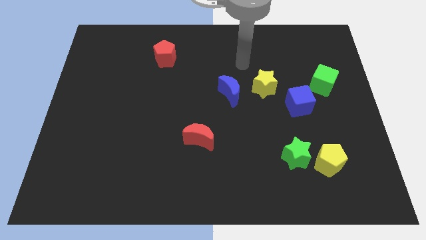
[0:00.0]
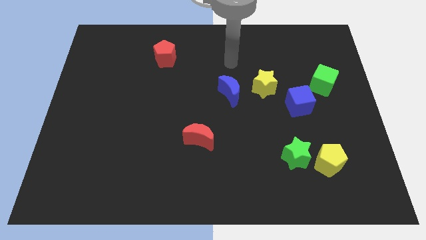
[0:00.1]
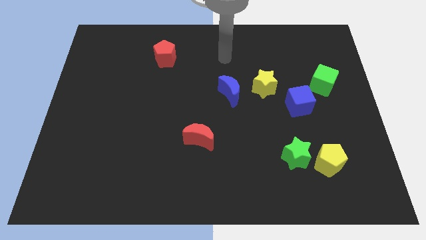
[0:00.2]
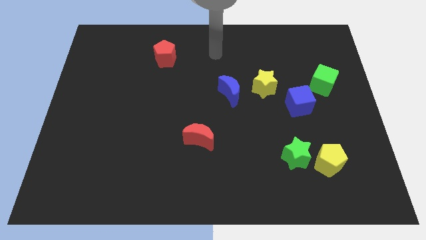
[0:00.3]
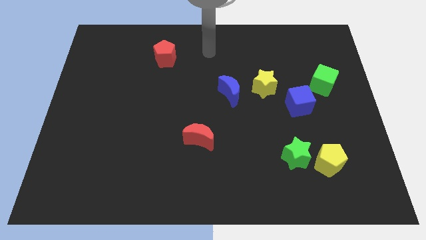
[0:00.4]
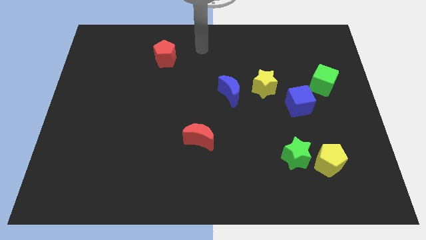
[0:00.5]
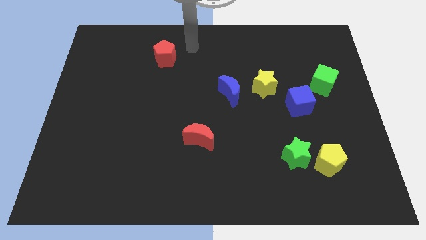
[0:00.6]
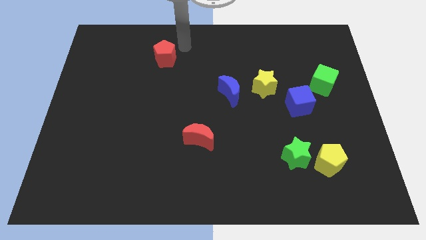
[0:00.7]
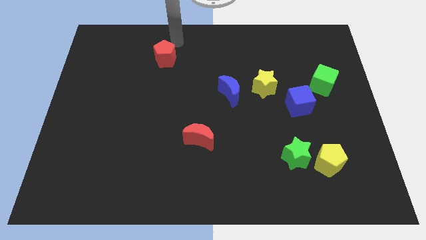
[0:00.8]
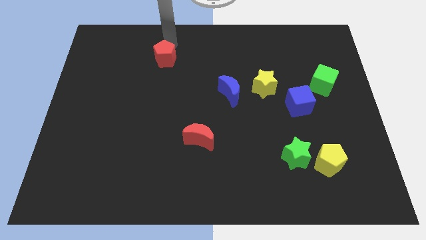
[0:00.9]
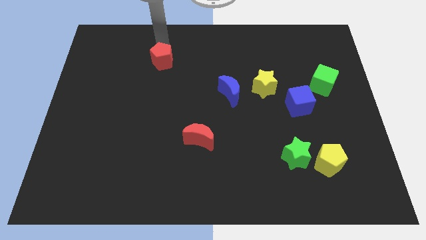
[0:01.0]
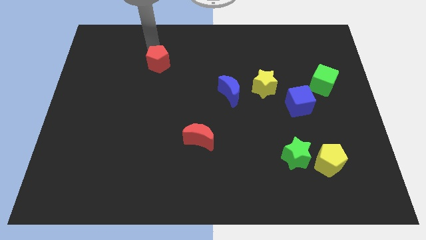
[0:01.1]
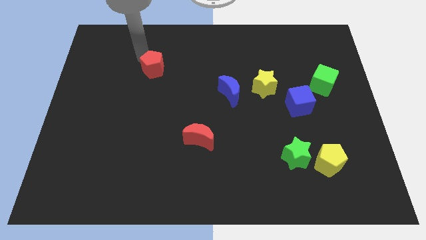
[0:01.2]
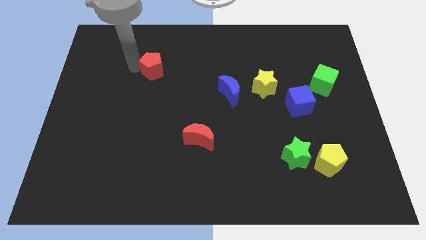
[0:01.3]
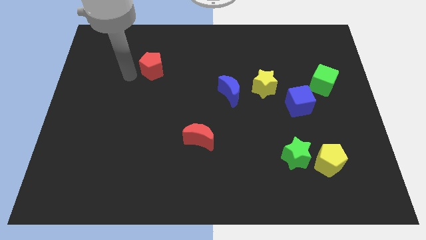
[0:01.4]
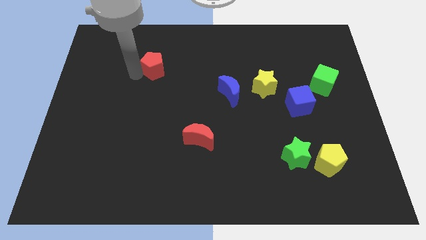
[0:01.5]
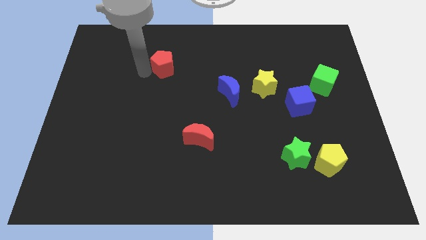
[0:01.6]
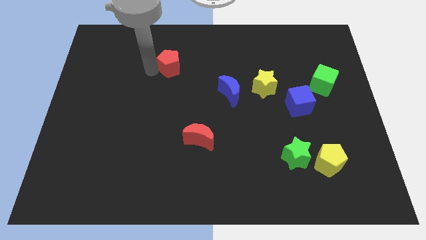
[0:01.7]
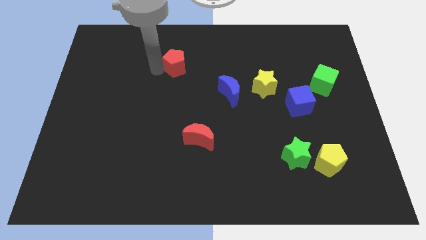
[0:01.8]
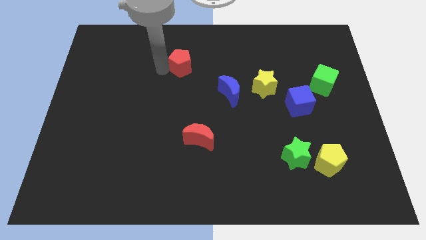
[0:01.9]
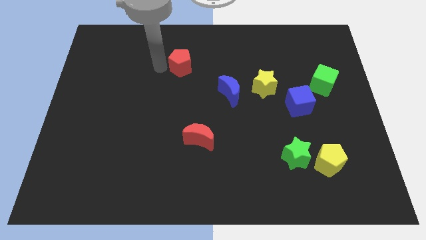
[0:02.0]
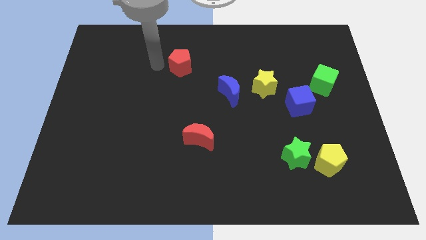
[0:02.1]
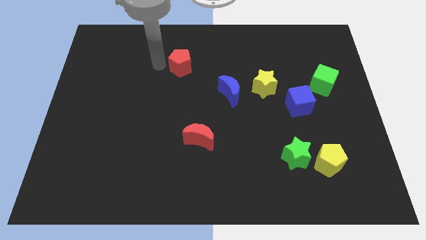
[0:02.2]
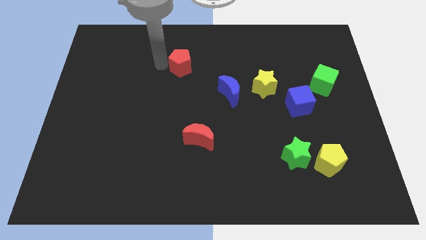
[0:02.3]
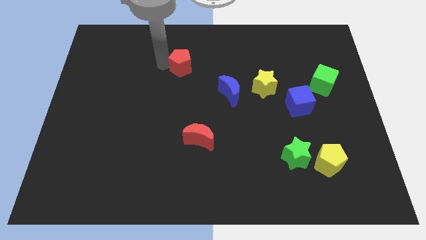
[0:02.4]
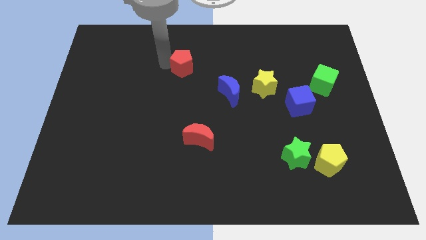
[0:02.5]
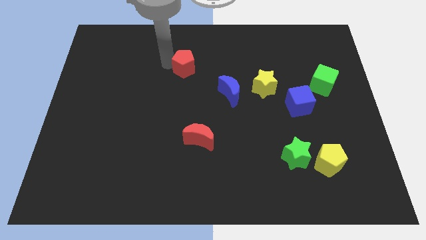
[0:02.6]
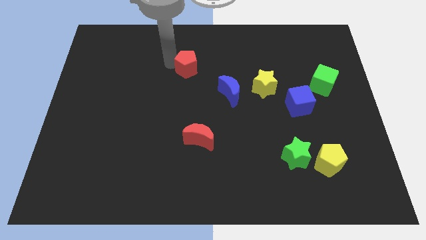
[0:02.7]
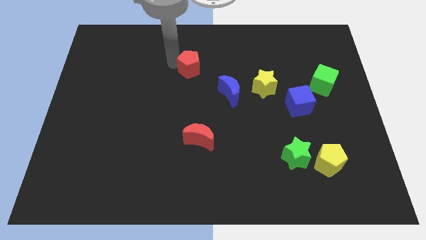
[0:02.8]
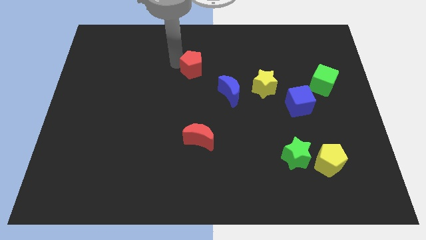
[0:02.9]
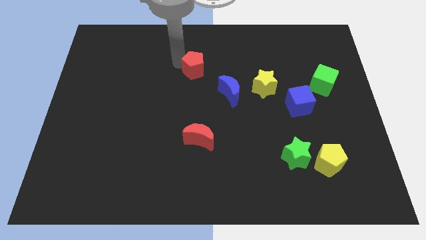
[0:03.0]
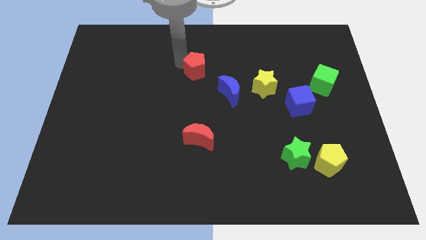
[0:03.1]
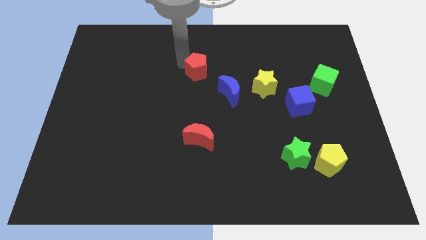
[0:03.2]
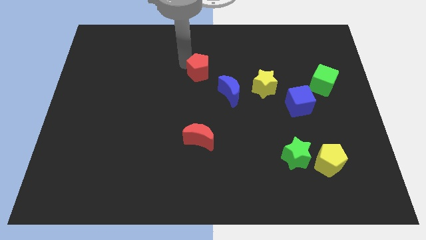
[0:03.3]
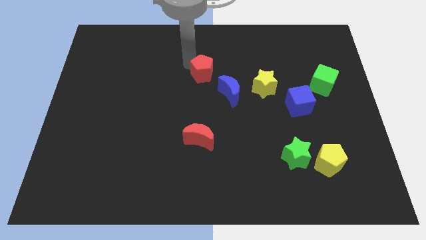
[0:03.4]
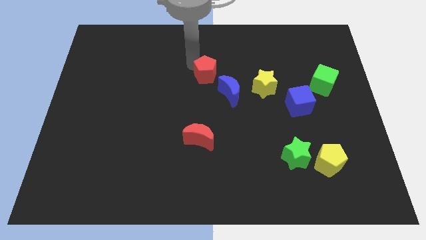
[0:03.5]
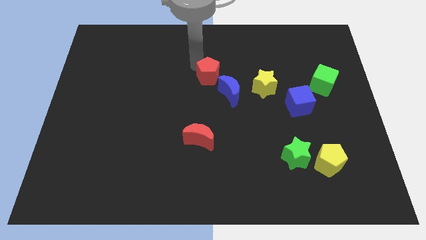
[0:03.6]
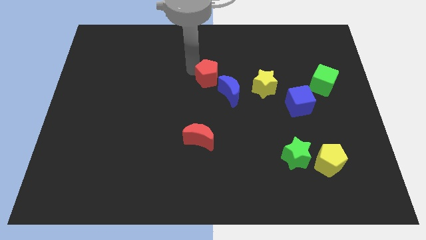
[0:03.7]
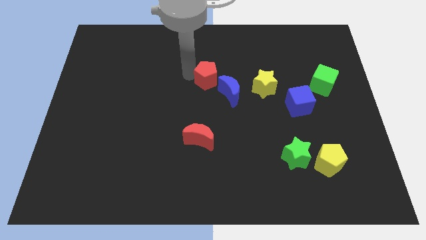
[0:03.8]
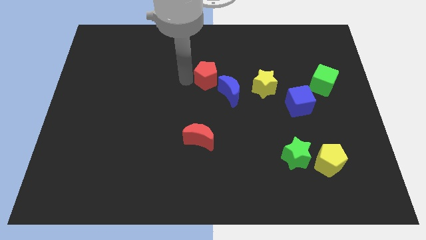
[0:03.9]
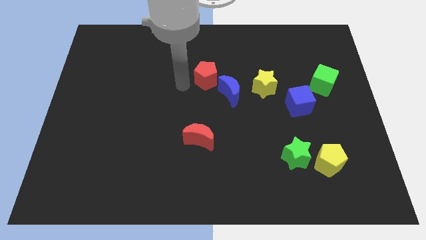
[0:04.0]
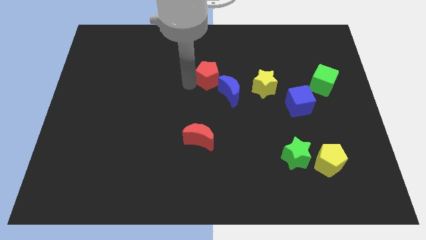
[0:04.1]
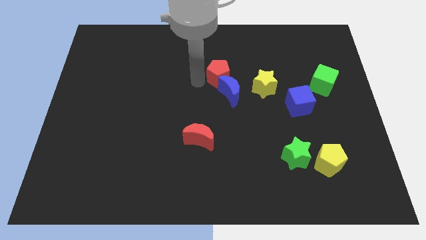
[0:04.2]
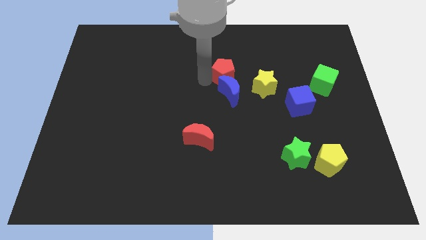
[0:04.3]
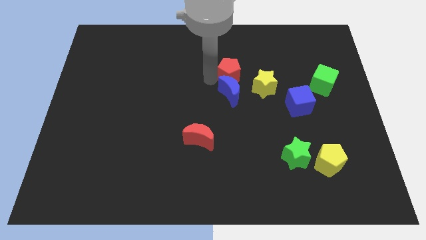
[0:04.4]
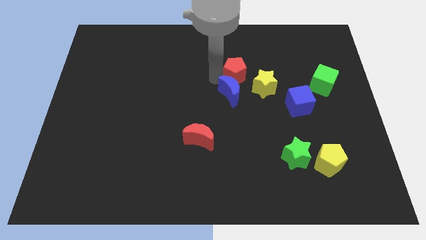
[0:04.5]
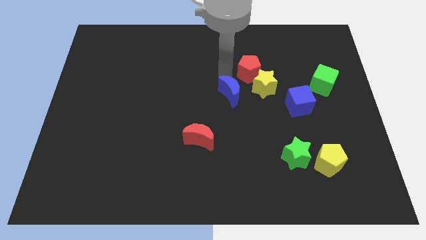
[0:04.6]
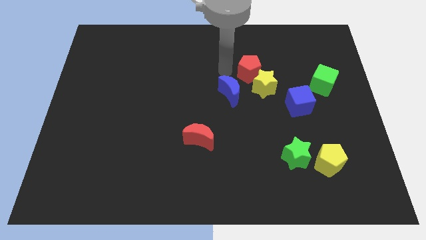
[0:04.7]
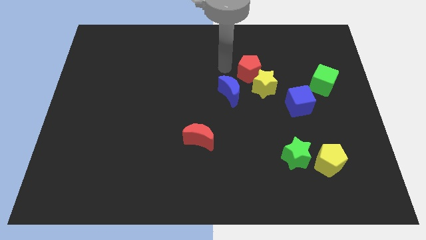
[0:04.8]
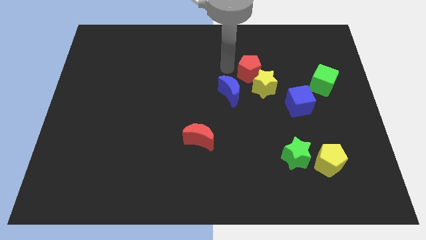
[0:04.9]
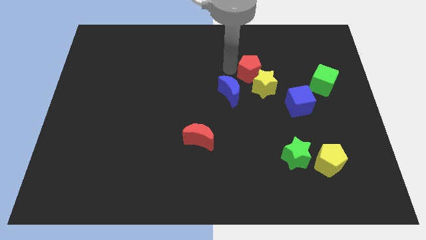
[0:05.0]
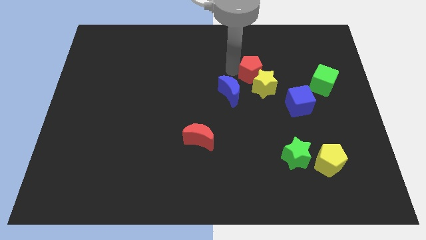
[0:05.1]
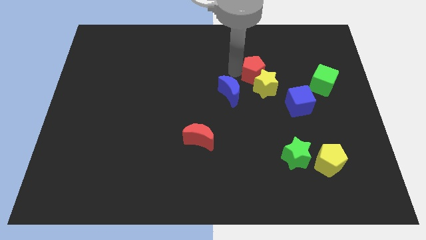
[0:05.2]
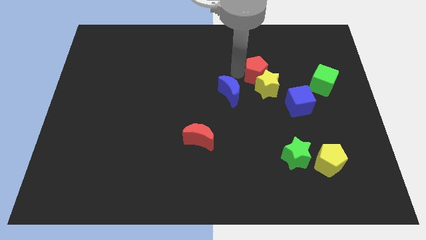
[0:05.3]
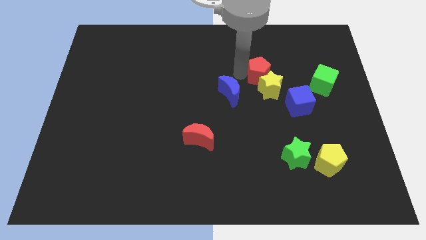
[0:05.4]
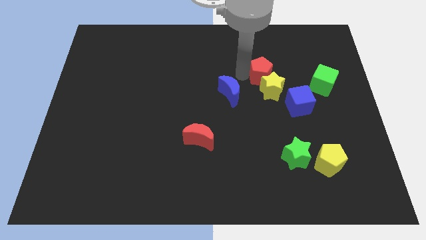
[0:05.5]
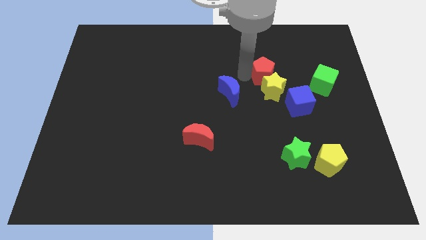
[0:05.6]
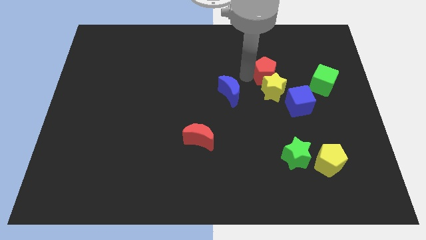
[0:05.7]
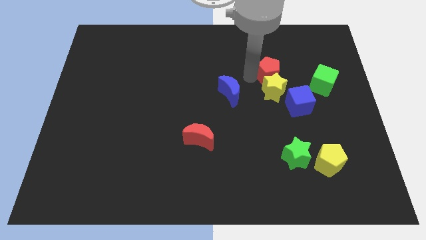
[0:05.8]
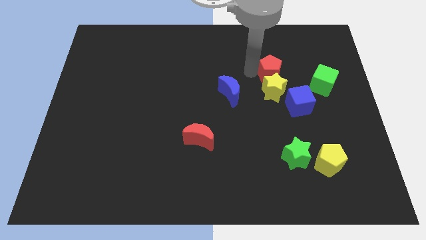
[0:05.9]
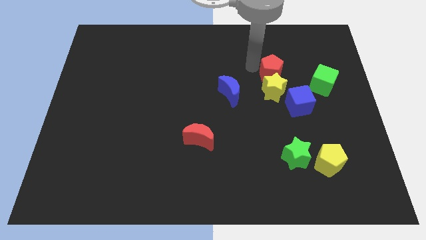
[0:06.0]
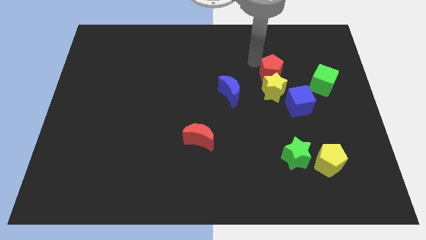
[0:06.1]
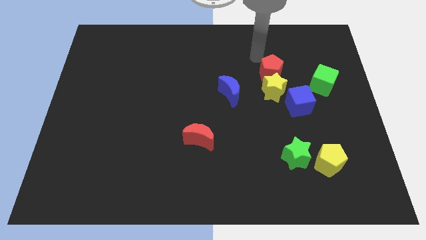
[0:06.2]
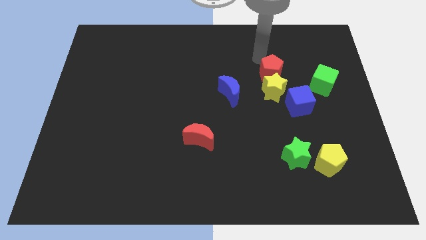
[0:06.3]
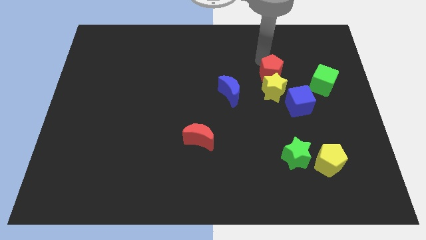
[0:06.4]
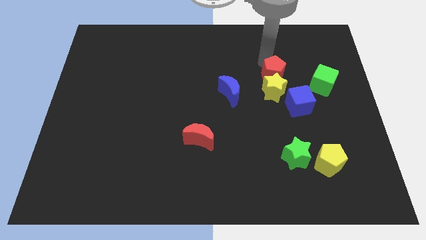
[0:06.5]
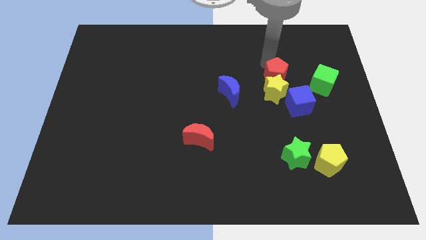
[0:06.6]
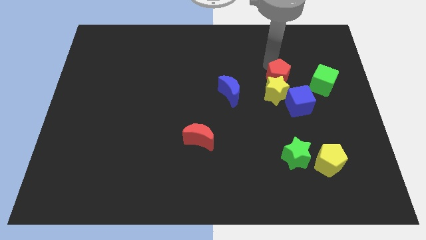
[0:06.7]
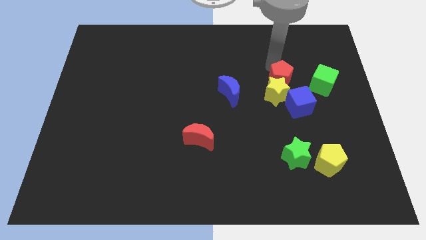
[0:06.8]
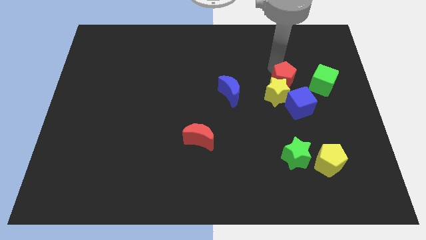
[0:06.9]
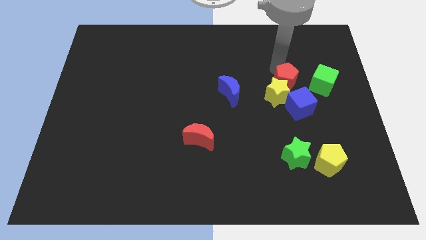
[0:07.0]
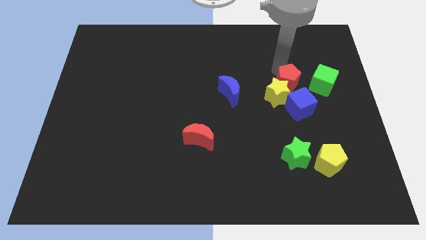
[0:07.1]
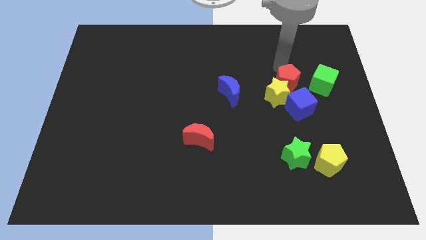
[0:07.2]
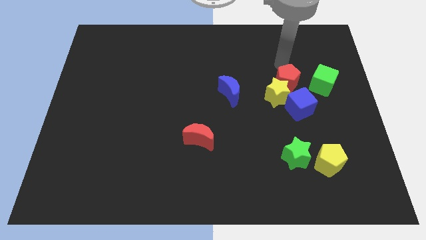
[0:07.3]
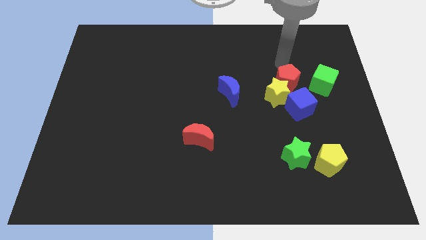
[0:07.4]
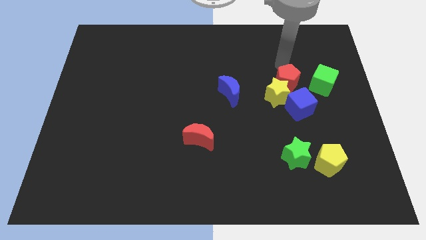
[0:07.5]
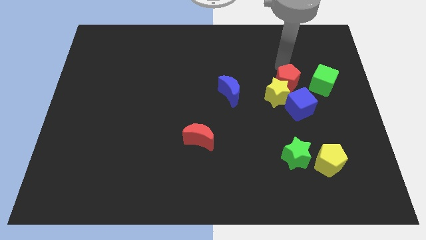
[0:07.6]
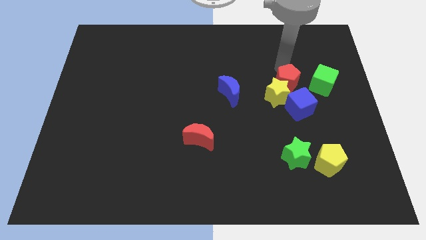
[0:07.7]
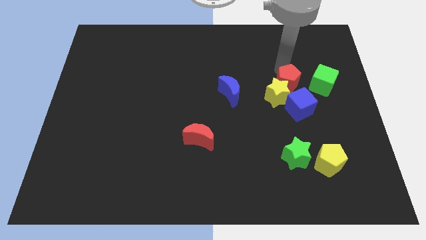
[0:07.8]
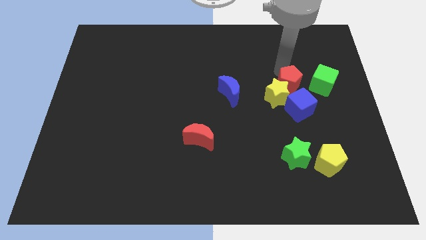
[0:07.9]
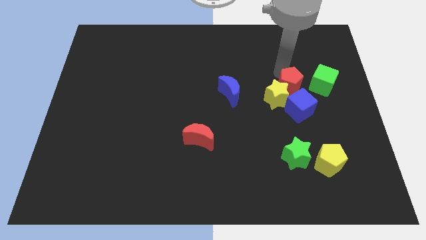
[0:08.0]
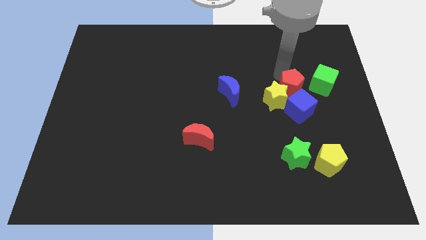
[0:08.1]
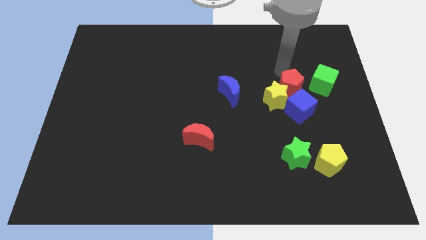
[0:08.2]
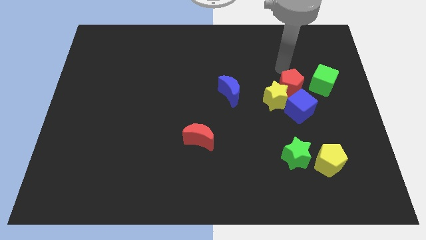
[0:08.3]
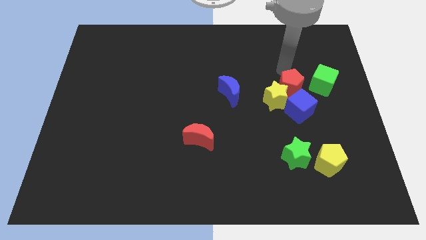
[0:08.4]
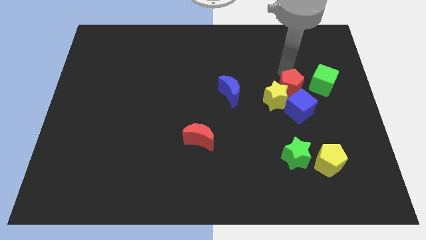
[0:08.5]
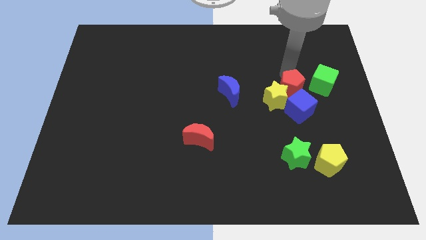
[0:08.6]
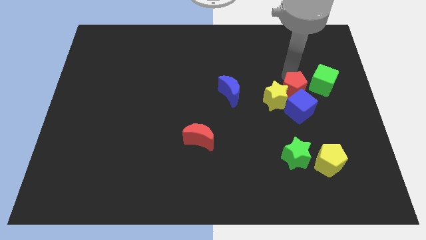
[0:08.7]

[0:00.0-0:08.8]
put the red pentagon next to the blue cube
